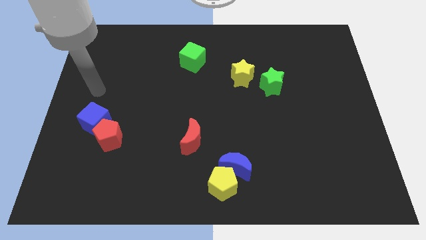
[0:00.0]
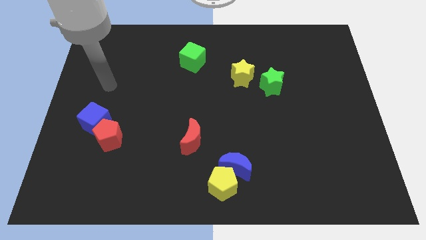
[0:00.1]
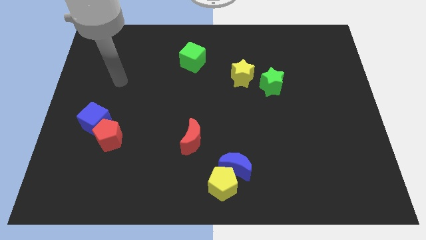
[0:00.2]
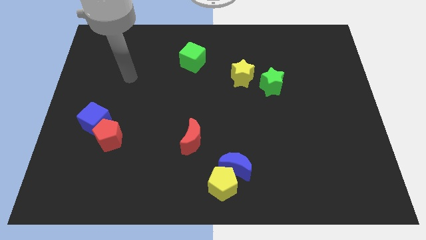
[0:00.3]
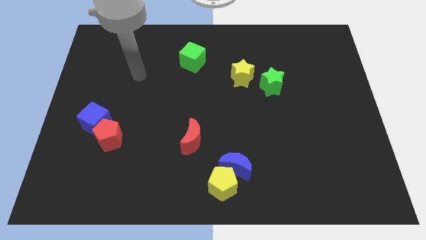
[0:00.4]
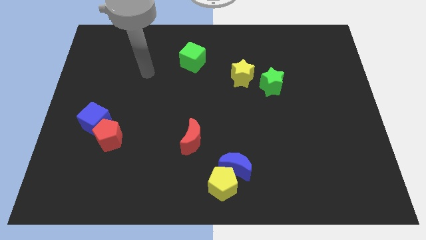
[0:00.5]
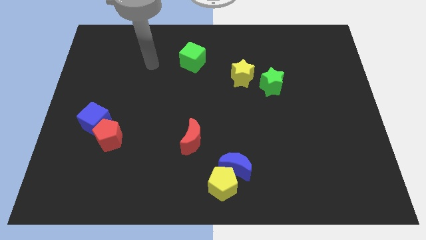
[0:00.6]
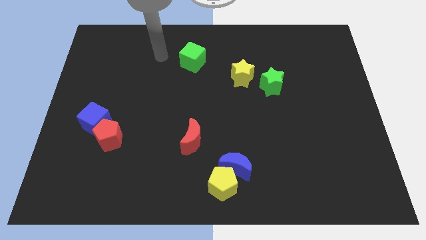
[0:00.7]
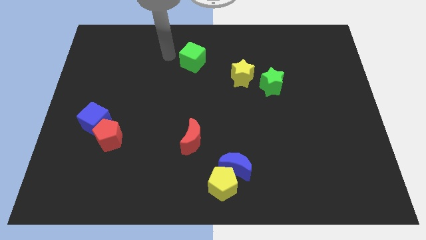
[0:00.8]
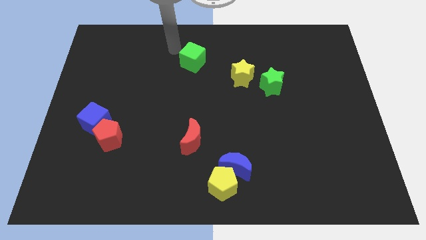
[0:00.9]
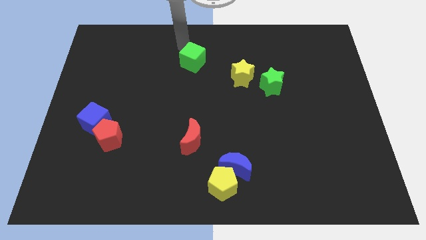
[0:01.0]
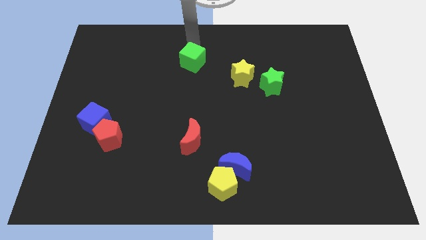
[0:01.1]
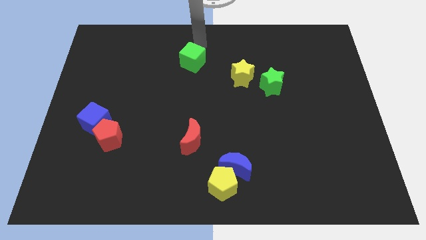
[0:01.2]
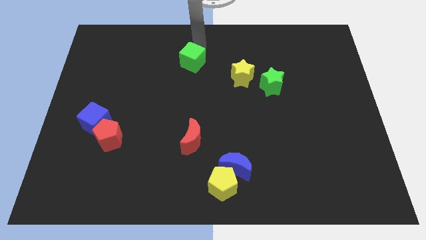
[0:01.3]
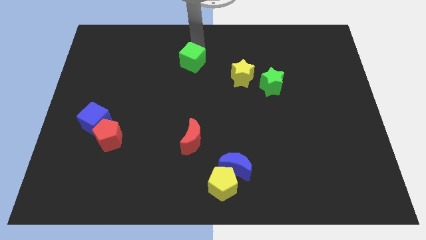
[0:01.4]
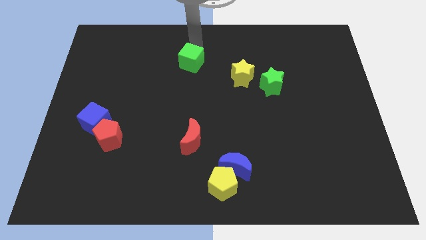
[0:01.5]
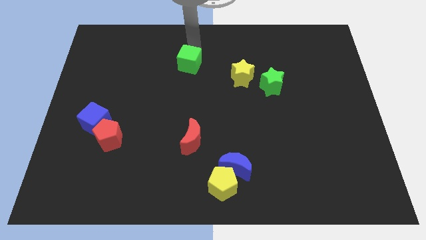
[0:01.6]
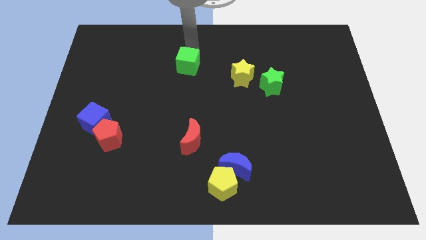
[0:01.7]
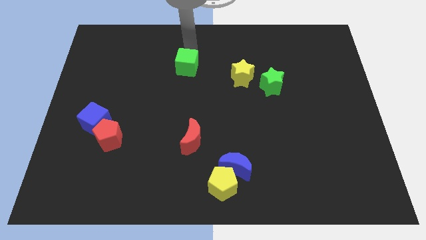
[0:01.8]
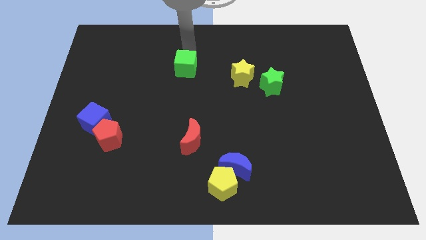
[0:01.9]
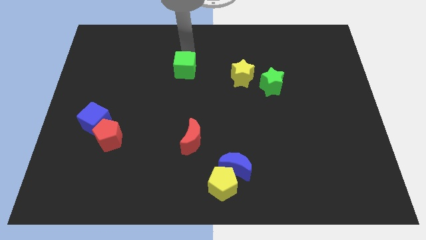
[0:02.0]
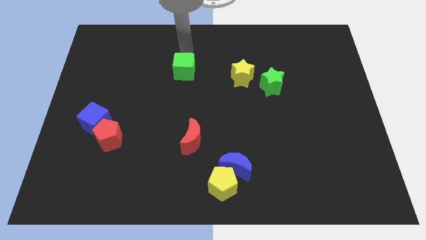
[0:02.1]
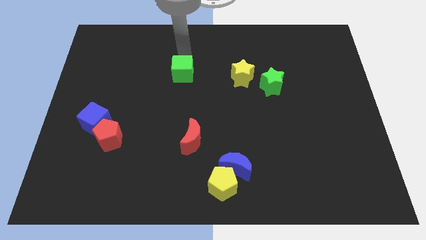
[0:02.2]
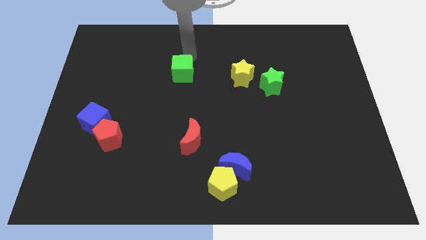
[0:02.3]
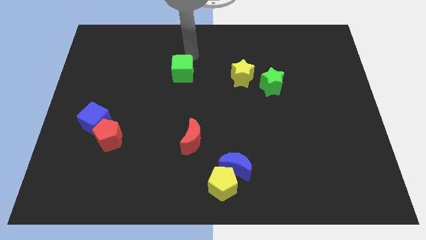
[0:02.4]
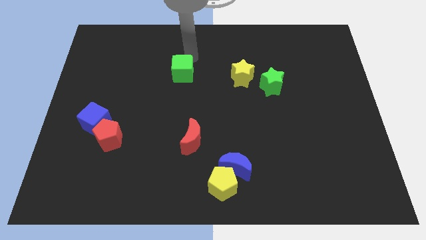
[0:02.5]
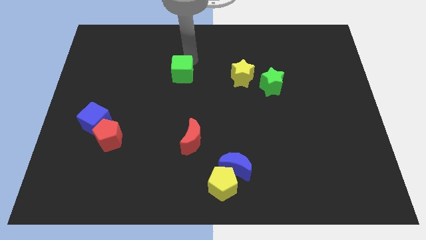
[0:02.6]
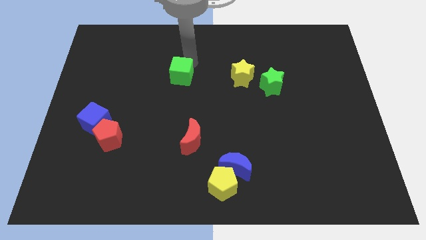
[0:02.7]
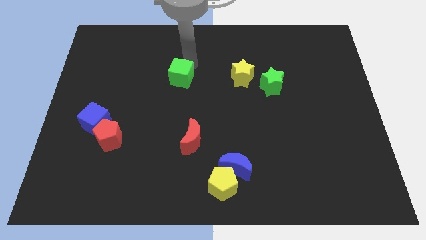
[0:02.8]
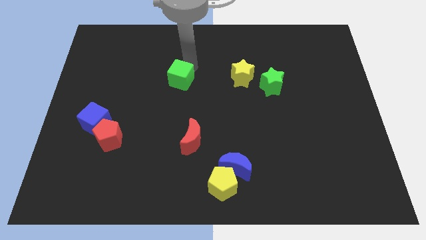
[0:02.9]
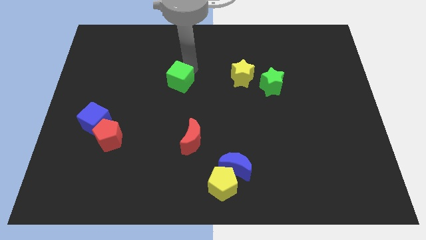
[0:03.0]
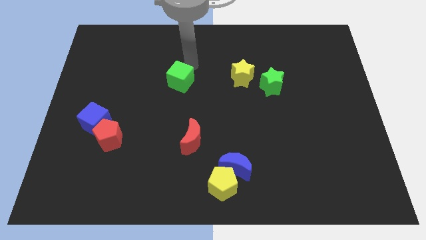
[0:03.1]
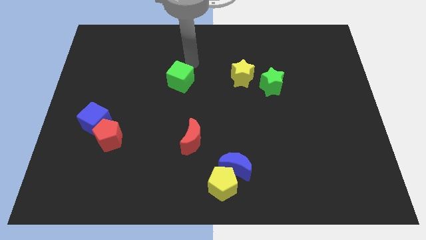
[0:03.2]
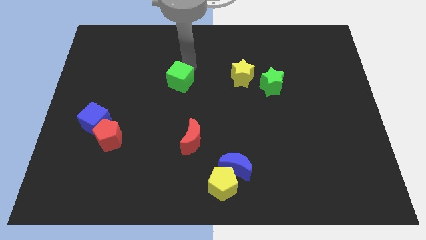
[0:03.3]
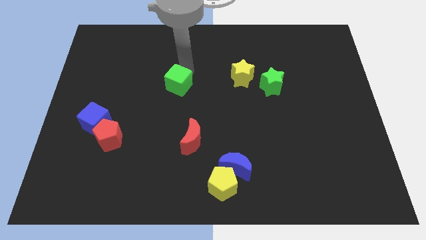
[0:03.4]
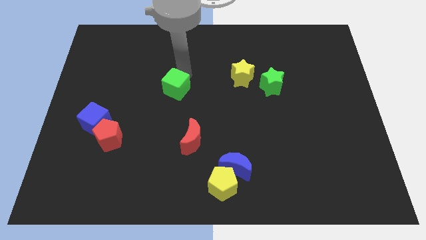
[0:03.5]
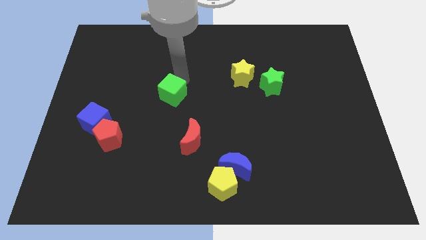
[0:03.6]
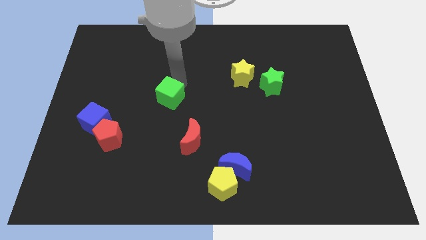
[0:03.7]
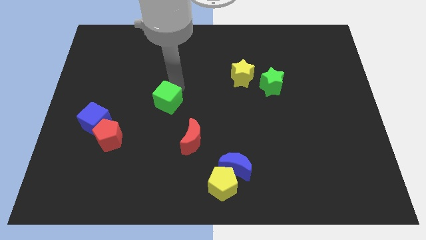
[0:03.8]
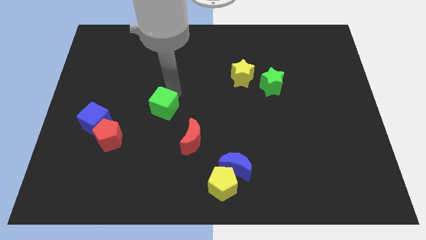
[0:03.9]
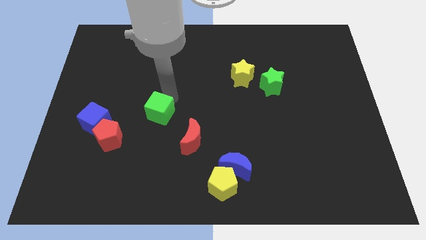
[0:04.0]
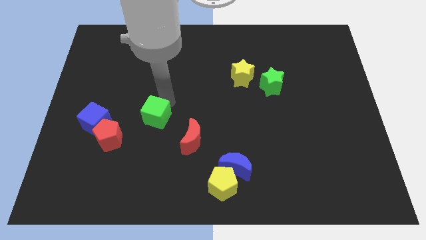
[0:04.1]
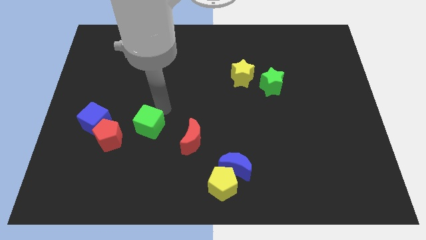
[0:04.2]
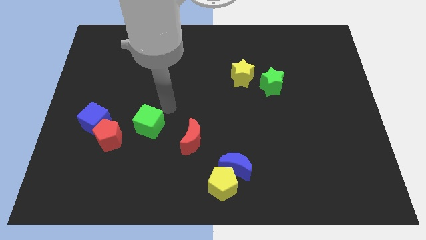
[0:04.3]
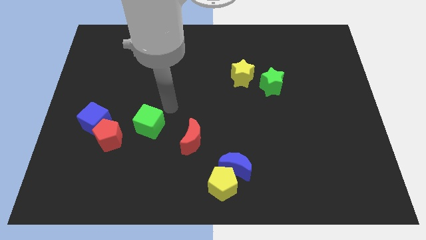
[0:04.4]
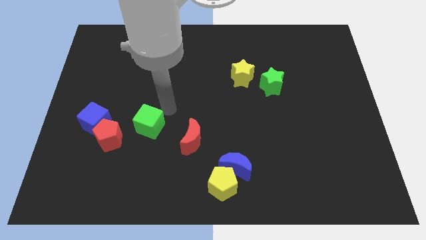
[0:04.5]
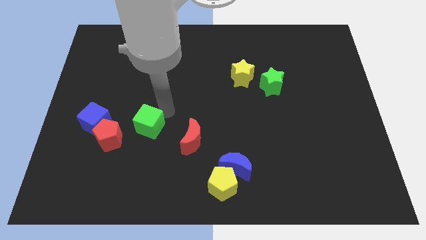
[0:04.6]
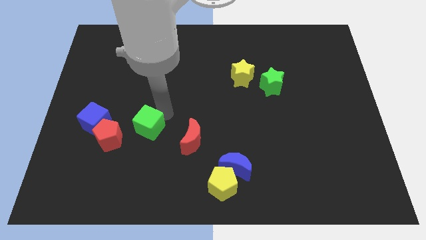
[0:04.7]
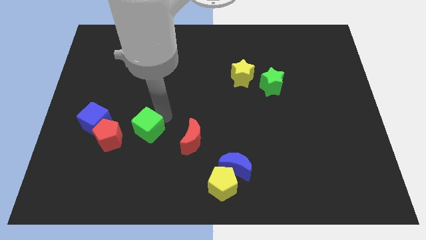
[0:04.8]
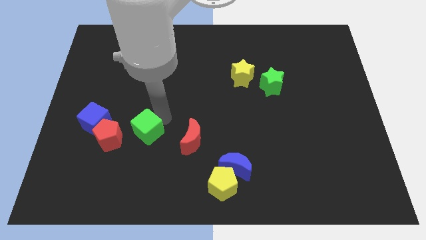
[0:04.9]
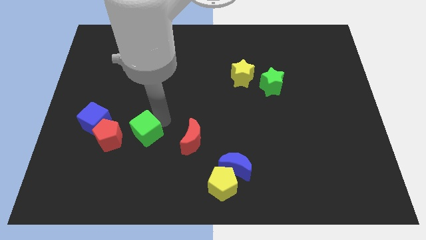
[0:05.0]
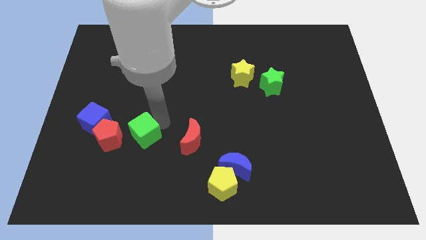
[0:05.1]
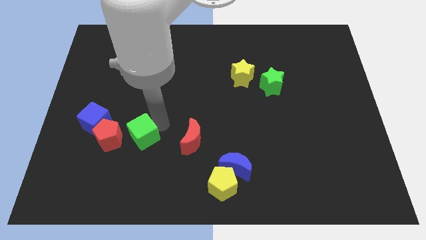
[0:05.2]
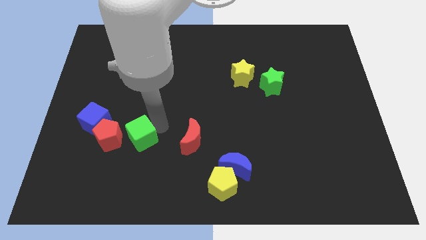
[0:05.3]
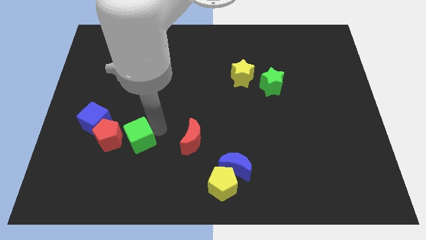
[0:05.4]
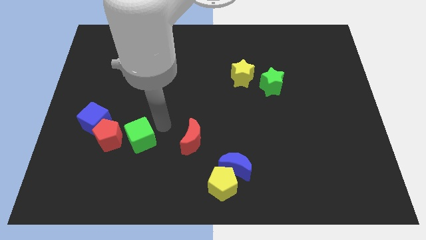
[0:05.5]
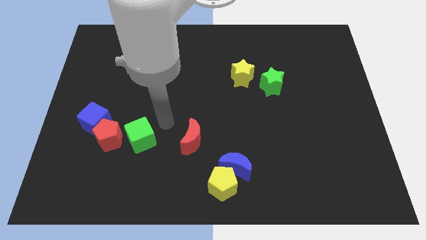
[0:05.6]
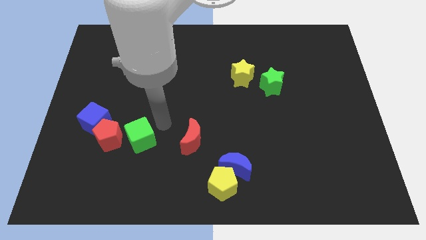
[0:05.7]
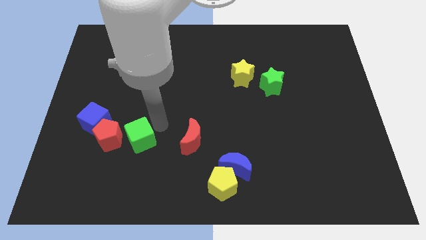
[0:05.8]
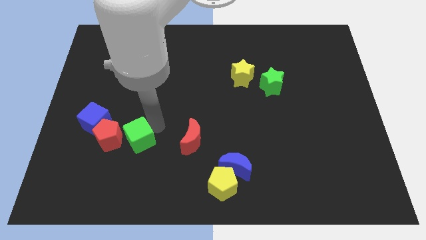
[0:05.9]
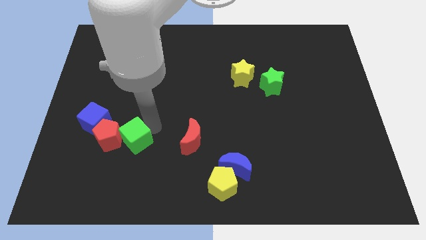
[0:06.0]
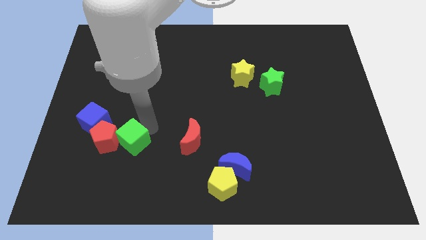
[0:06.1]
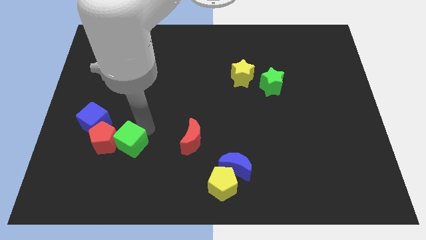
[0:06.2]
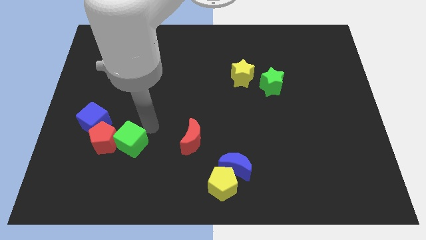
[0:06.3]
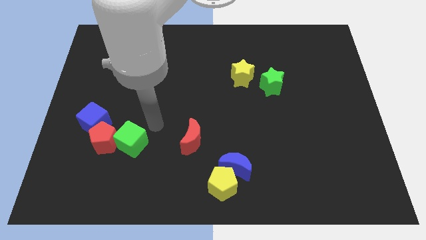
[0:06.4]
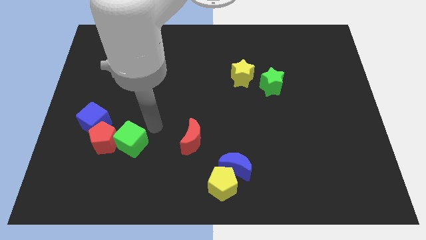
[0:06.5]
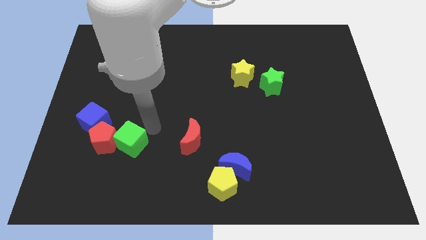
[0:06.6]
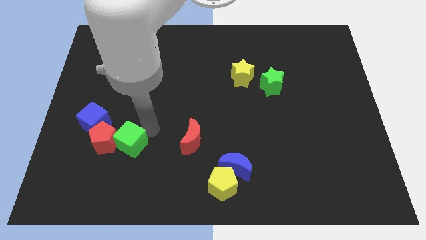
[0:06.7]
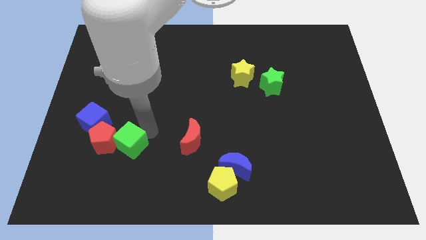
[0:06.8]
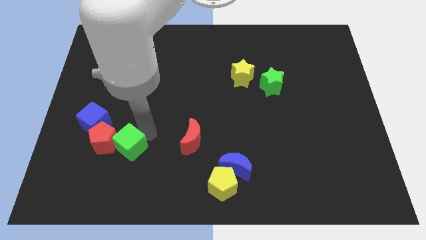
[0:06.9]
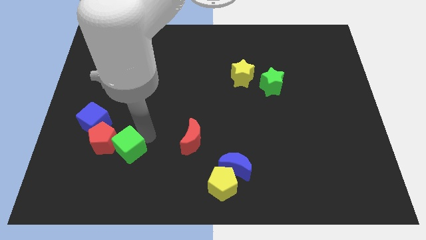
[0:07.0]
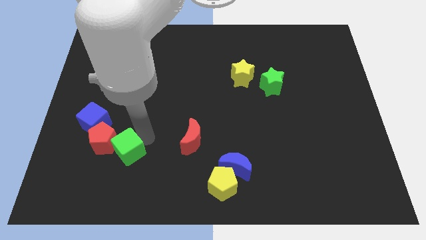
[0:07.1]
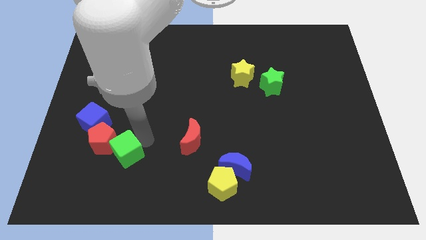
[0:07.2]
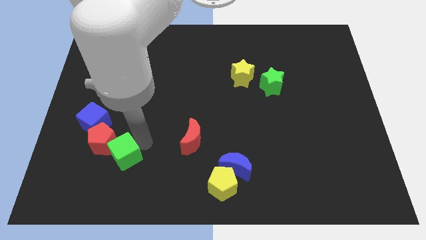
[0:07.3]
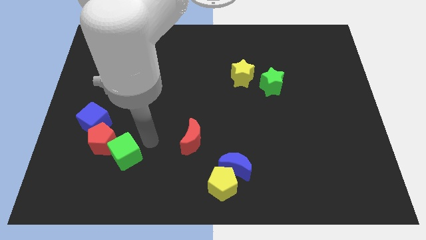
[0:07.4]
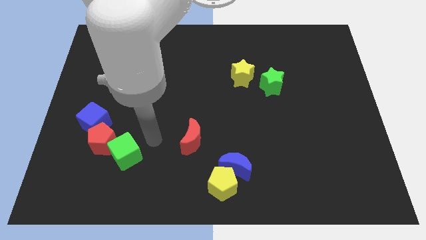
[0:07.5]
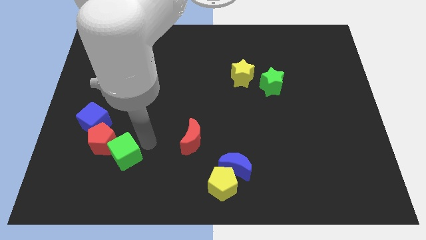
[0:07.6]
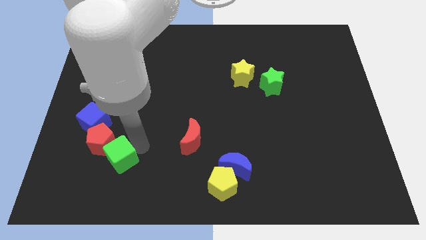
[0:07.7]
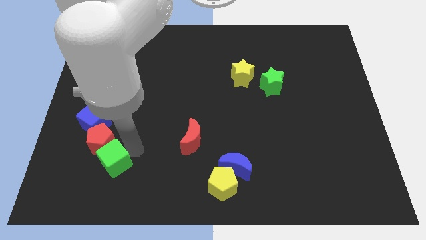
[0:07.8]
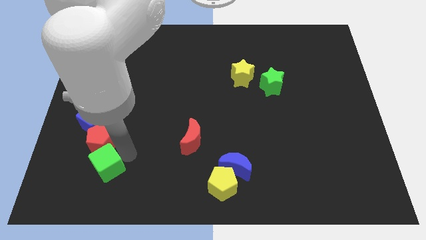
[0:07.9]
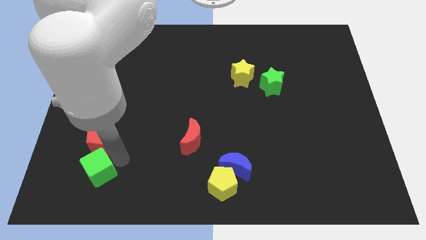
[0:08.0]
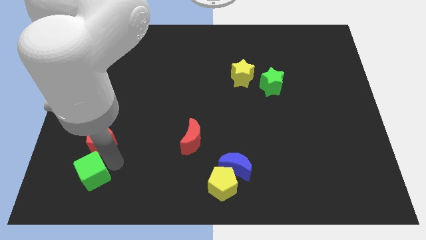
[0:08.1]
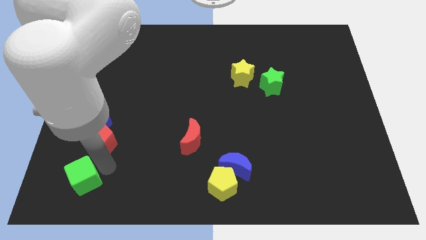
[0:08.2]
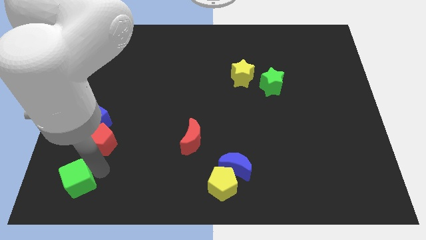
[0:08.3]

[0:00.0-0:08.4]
push the green cube to the bottom left
